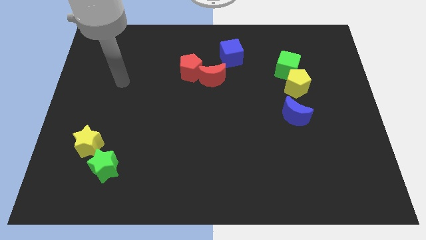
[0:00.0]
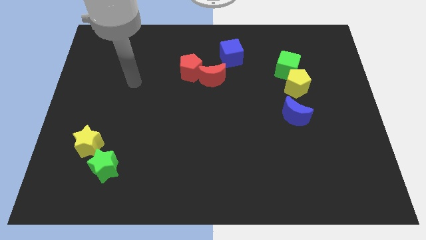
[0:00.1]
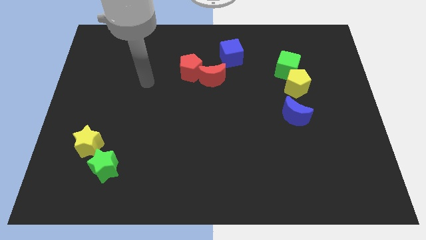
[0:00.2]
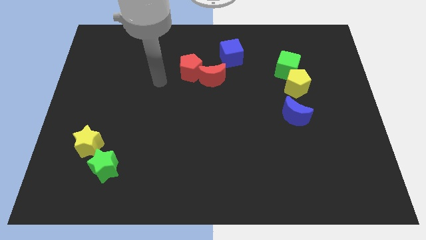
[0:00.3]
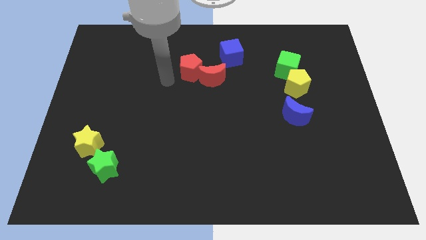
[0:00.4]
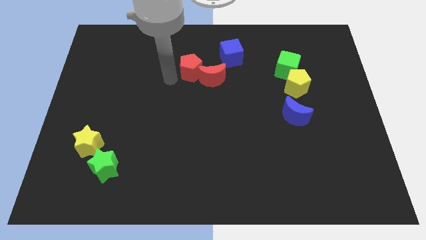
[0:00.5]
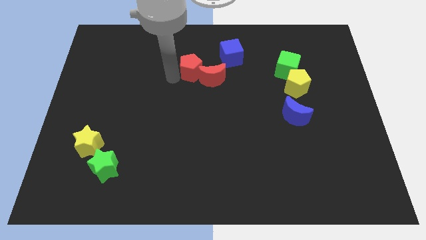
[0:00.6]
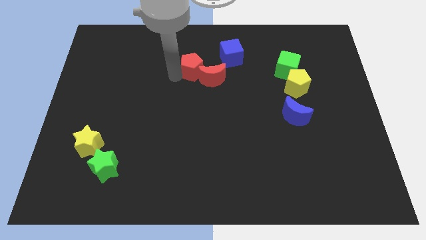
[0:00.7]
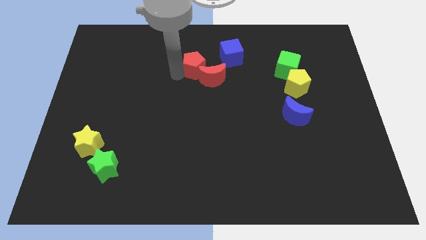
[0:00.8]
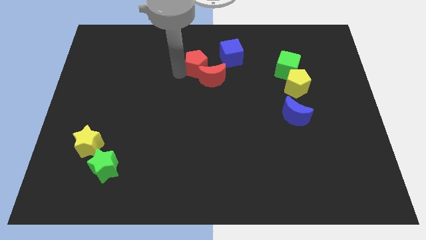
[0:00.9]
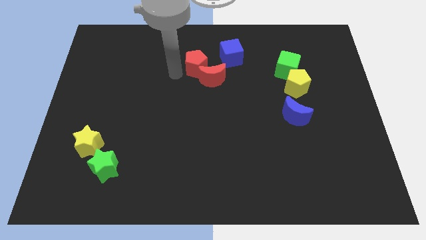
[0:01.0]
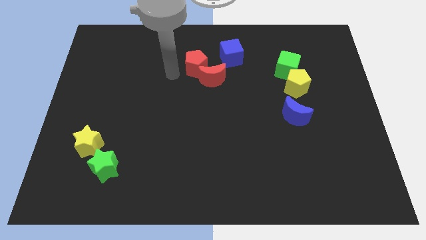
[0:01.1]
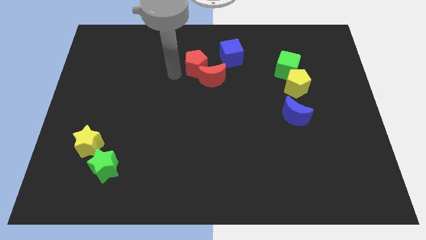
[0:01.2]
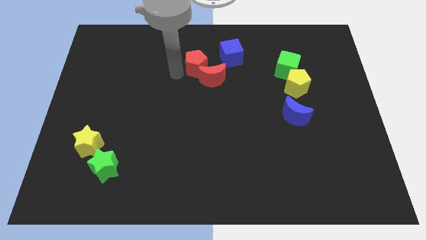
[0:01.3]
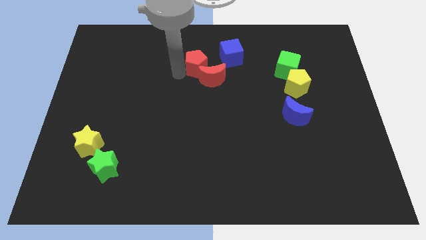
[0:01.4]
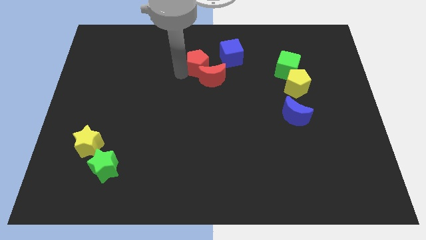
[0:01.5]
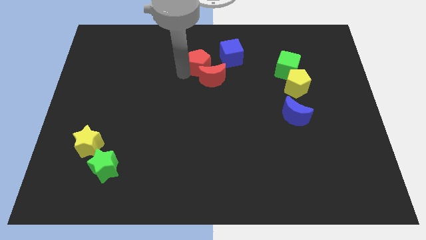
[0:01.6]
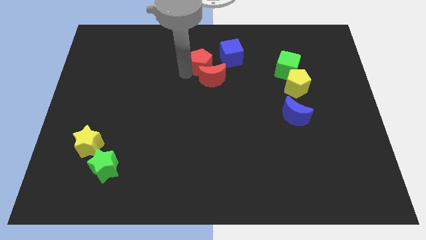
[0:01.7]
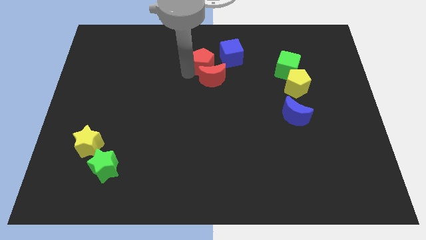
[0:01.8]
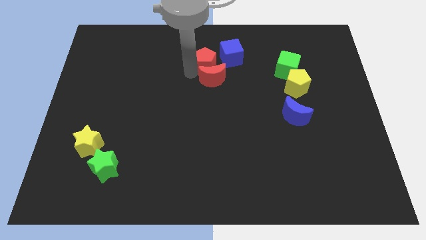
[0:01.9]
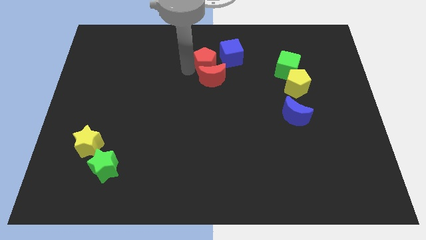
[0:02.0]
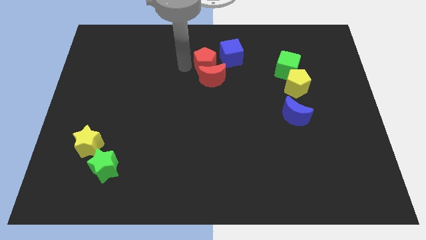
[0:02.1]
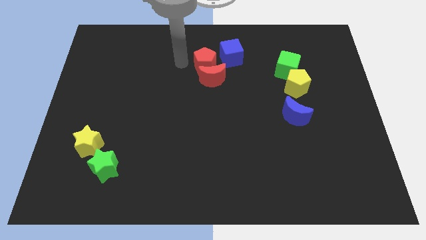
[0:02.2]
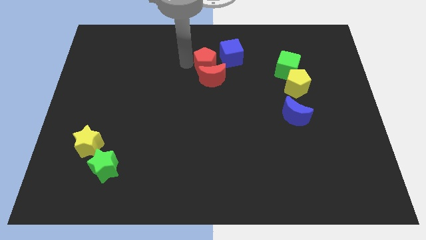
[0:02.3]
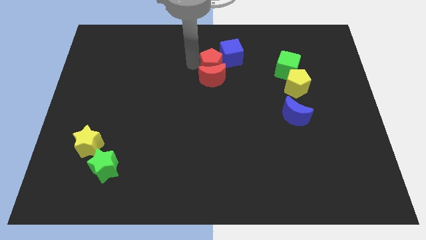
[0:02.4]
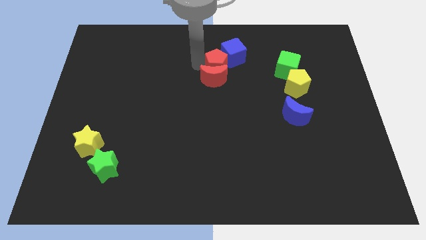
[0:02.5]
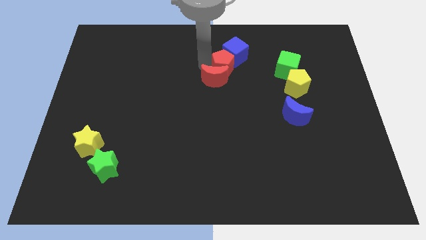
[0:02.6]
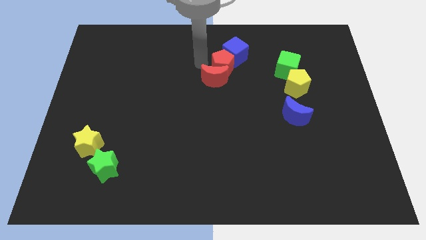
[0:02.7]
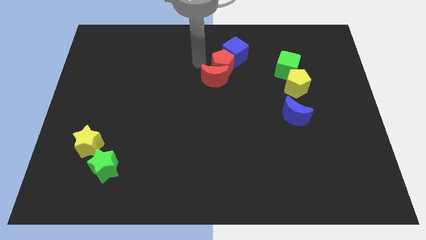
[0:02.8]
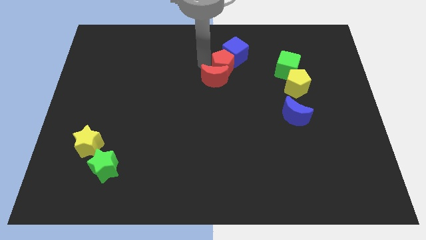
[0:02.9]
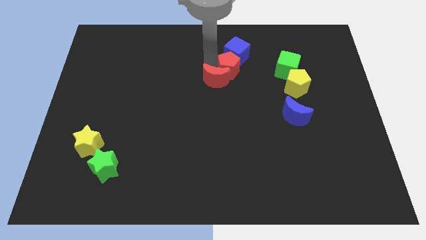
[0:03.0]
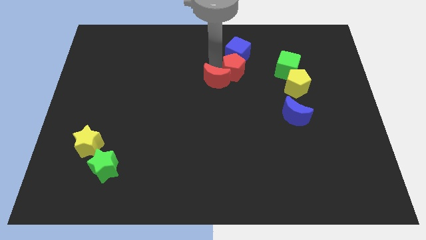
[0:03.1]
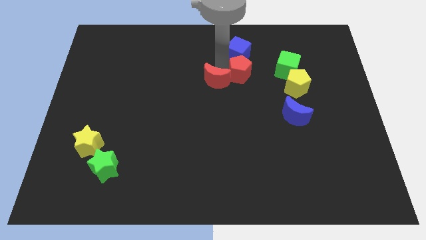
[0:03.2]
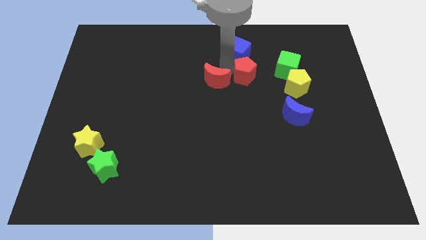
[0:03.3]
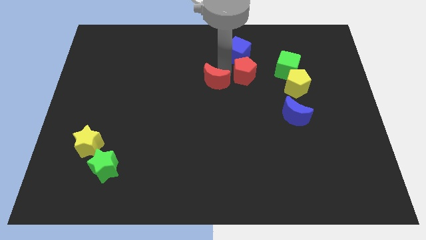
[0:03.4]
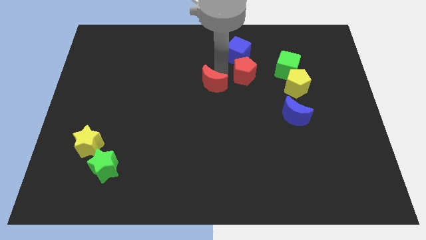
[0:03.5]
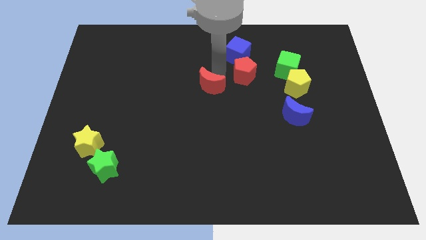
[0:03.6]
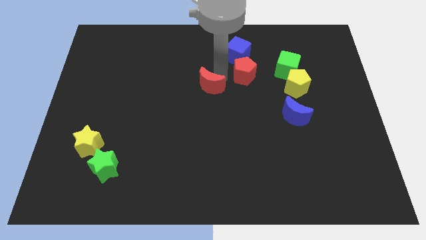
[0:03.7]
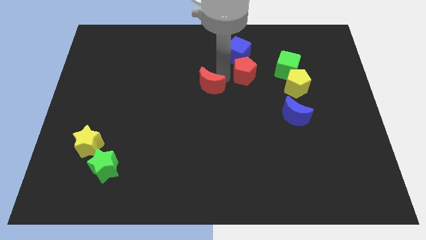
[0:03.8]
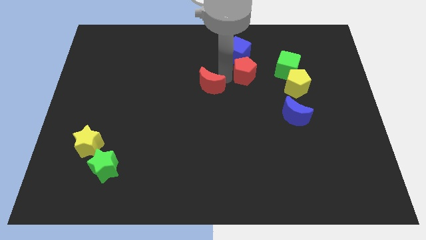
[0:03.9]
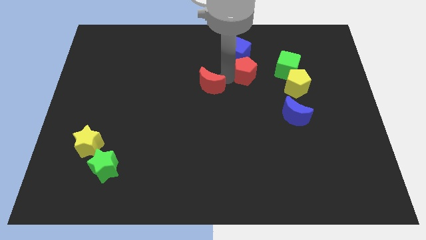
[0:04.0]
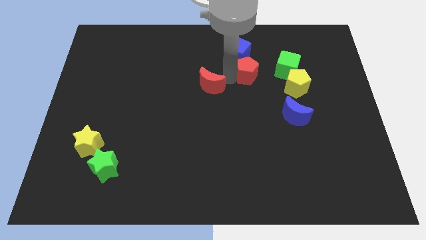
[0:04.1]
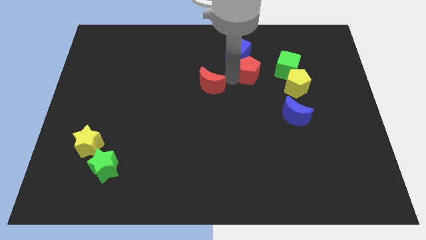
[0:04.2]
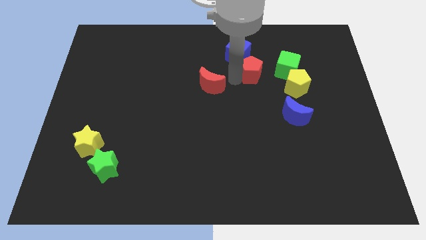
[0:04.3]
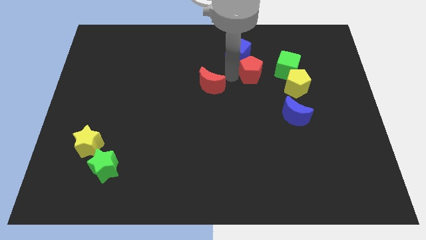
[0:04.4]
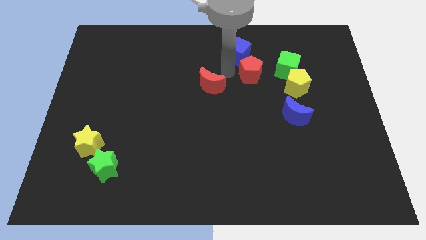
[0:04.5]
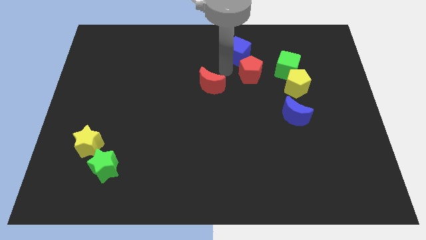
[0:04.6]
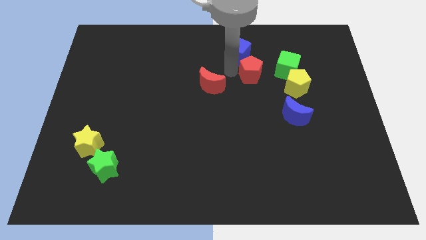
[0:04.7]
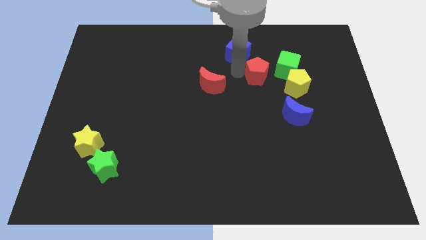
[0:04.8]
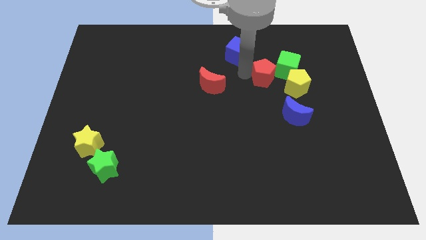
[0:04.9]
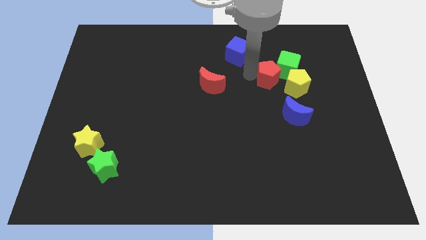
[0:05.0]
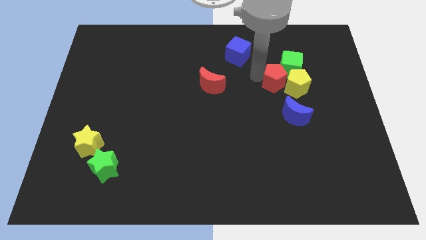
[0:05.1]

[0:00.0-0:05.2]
slide the red pentagon close to the yellow pentagon

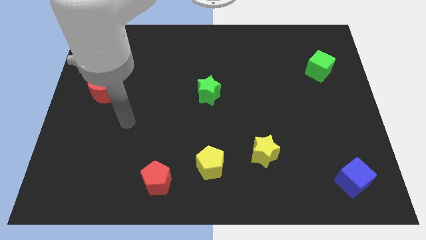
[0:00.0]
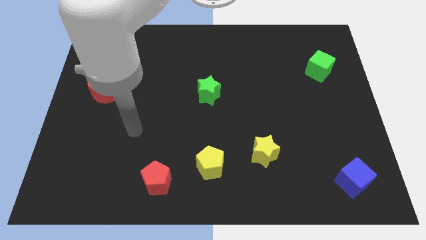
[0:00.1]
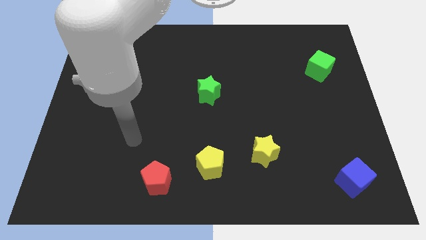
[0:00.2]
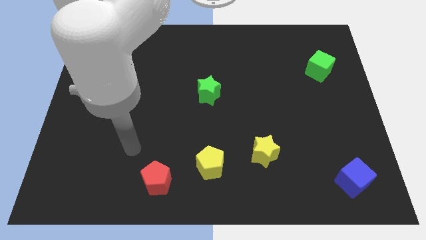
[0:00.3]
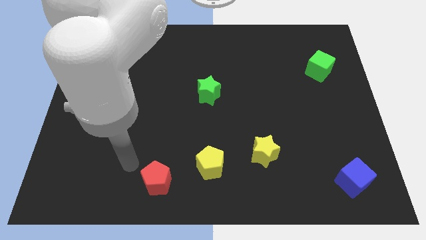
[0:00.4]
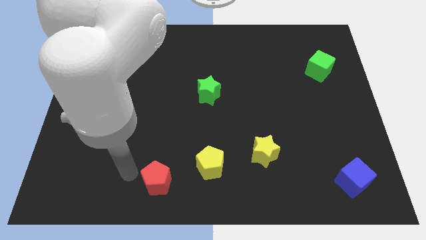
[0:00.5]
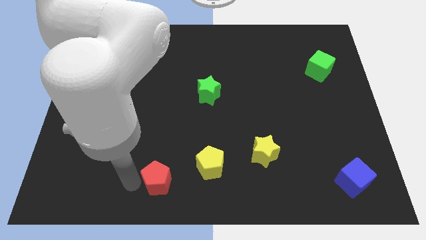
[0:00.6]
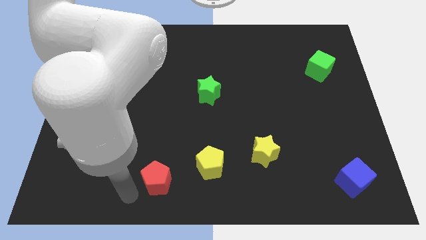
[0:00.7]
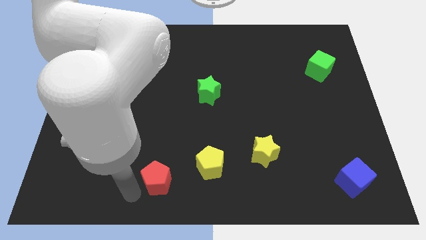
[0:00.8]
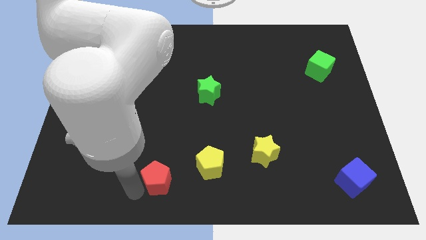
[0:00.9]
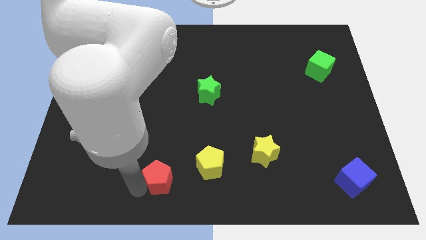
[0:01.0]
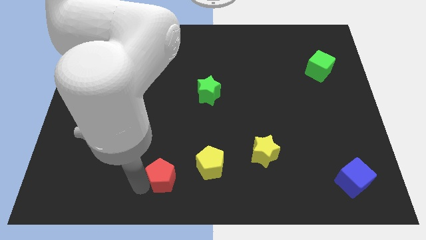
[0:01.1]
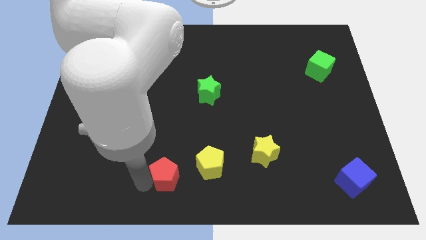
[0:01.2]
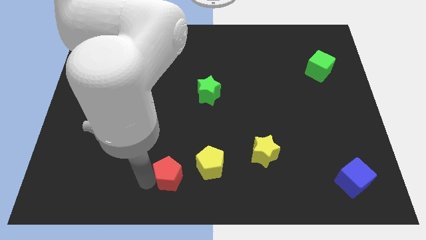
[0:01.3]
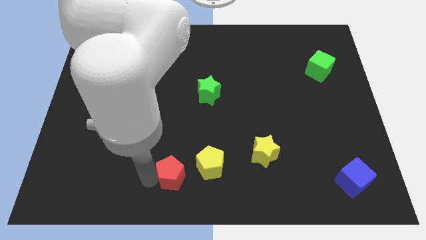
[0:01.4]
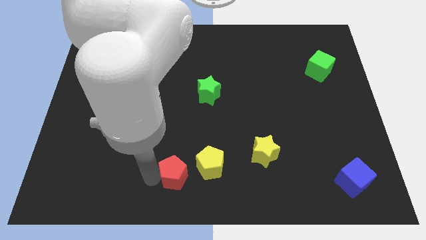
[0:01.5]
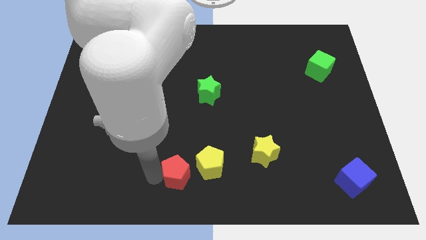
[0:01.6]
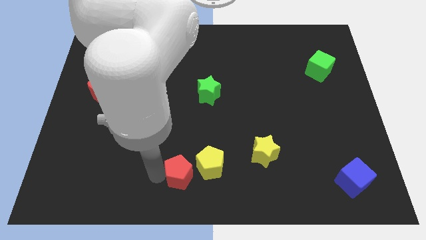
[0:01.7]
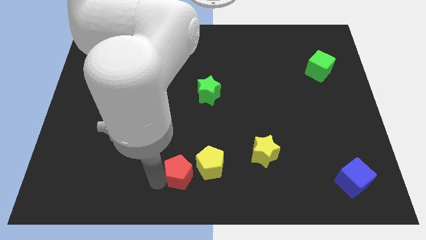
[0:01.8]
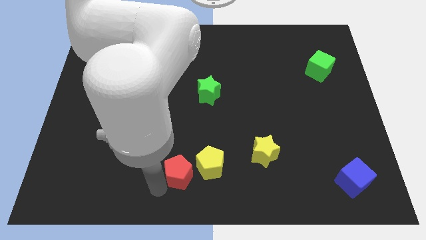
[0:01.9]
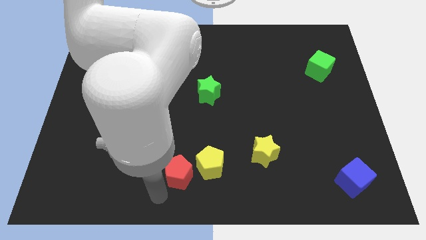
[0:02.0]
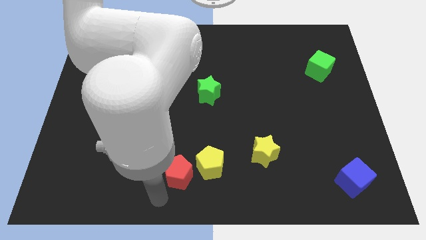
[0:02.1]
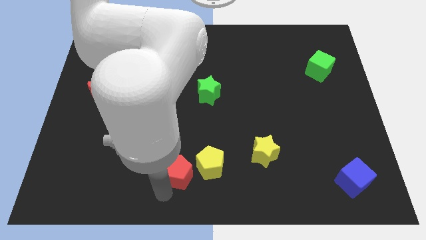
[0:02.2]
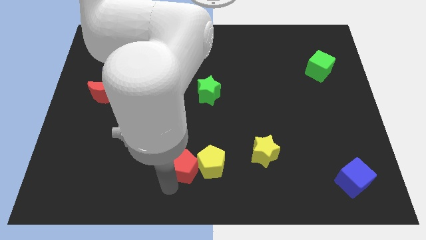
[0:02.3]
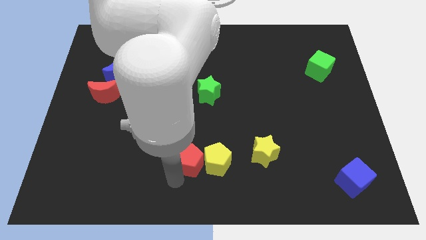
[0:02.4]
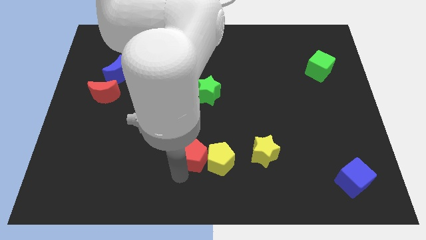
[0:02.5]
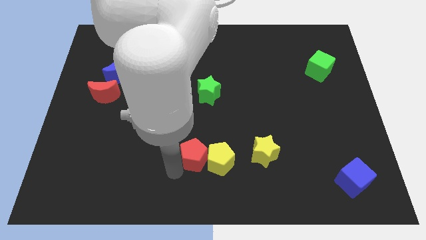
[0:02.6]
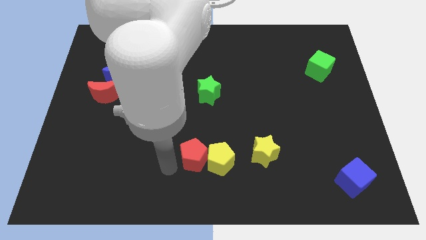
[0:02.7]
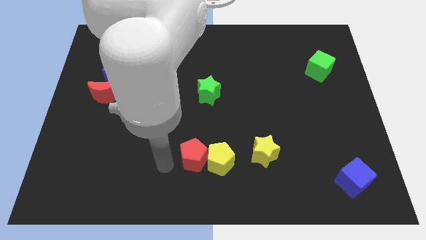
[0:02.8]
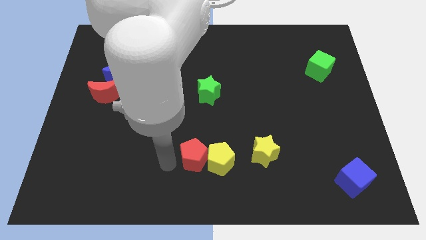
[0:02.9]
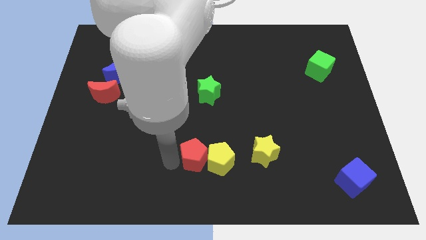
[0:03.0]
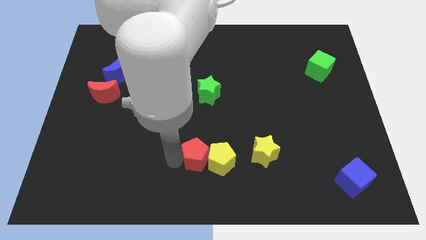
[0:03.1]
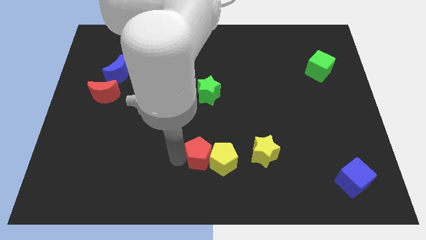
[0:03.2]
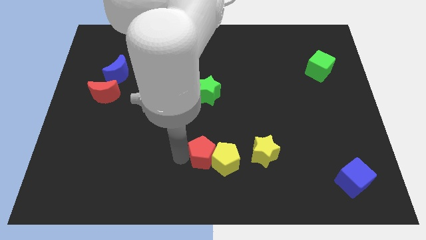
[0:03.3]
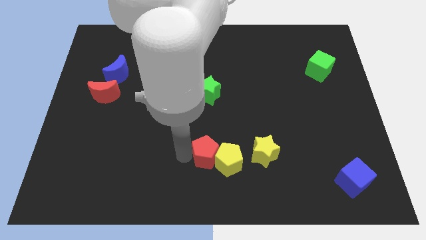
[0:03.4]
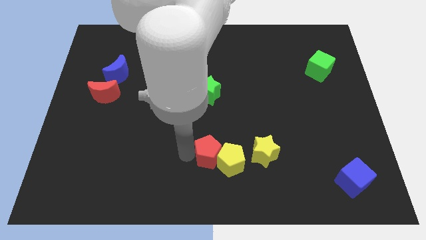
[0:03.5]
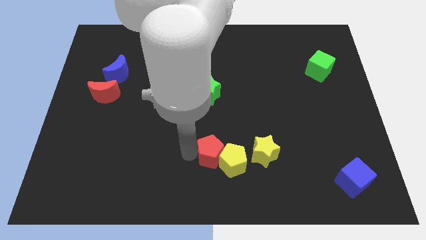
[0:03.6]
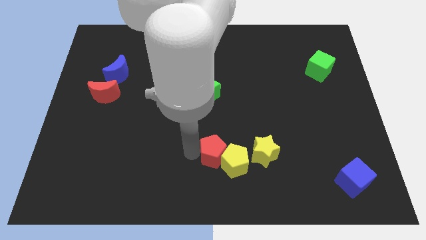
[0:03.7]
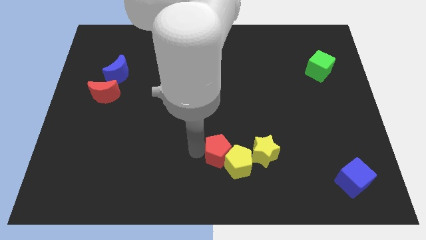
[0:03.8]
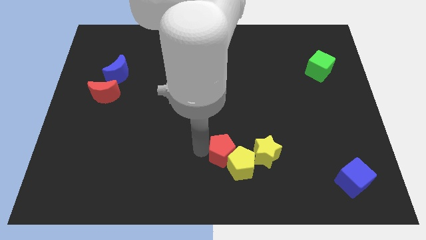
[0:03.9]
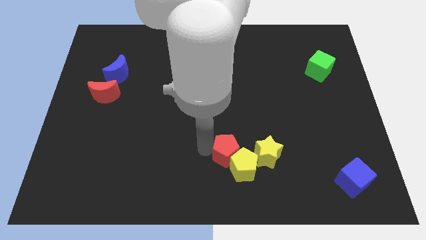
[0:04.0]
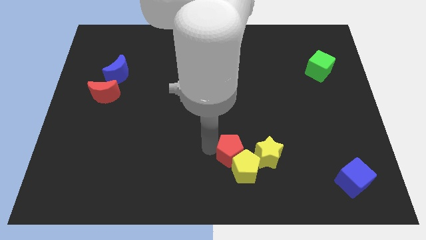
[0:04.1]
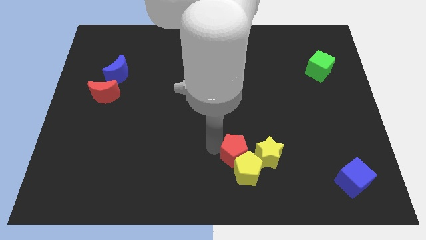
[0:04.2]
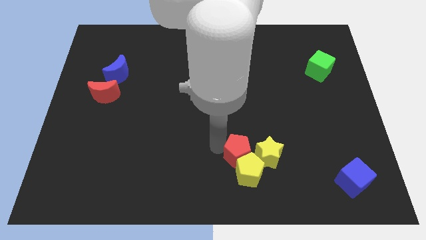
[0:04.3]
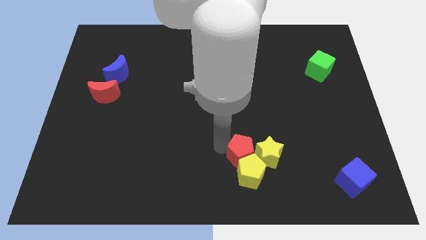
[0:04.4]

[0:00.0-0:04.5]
put the red pentagon to the yellow star
